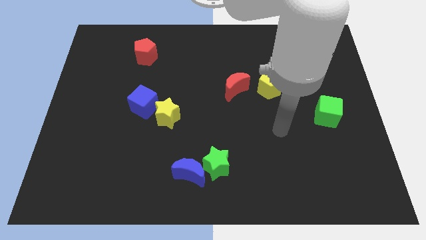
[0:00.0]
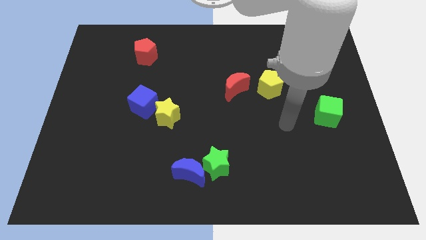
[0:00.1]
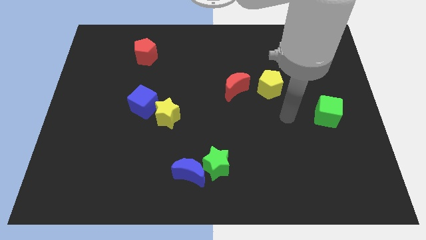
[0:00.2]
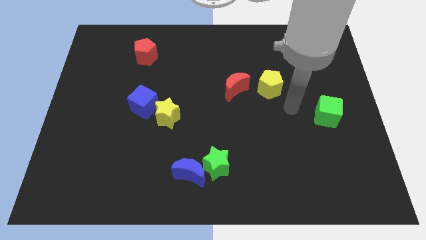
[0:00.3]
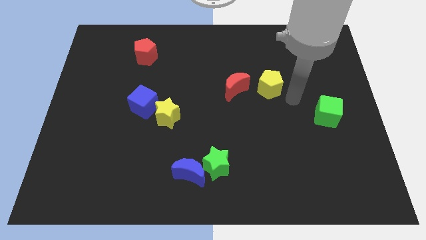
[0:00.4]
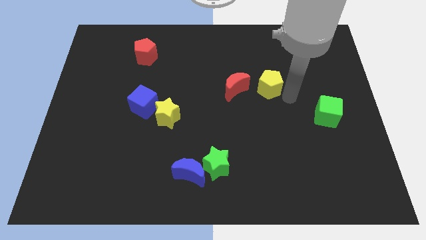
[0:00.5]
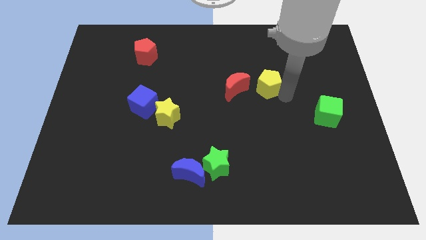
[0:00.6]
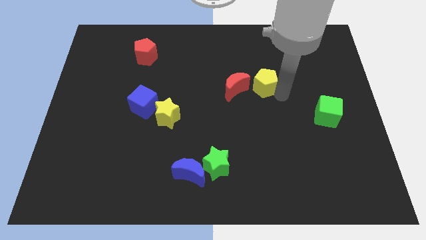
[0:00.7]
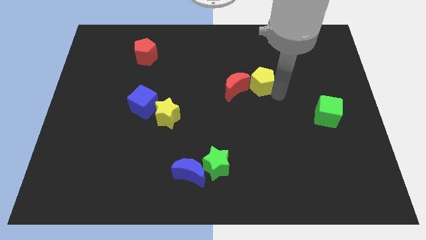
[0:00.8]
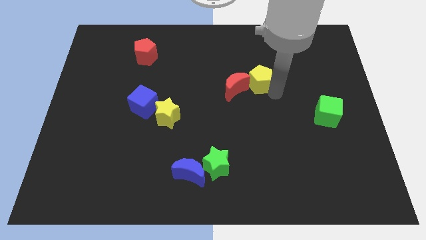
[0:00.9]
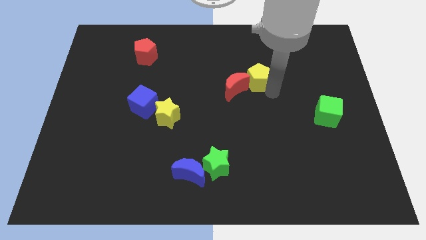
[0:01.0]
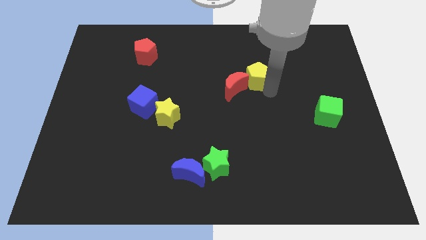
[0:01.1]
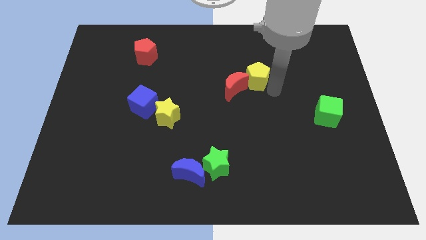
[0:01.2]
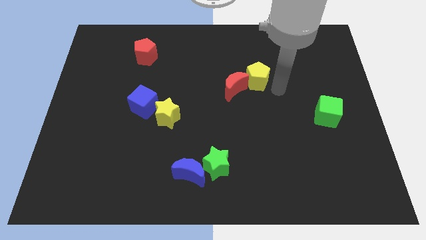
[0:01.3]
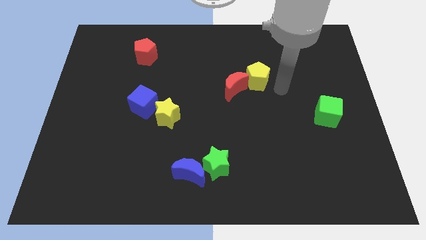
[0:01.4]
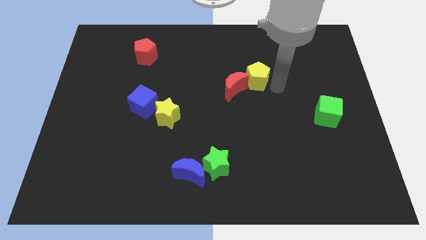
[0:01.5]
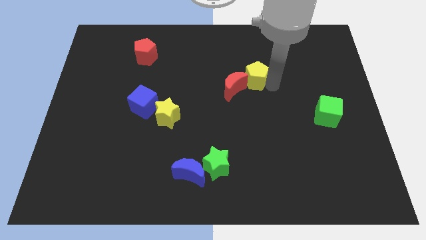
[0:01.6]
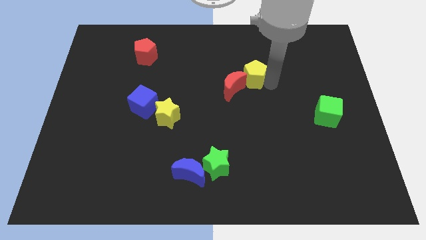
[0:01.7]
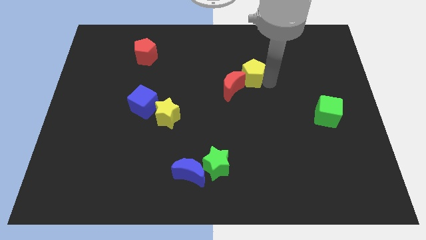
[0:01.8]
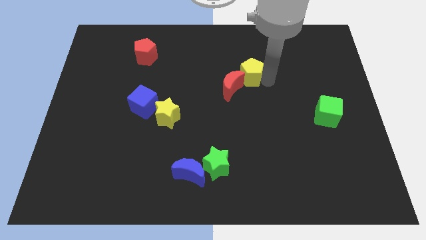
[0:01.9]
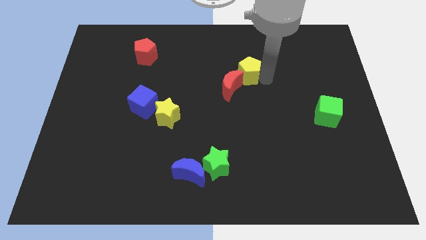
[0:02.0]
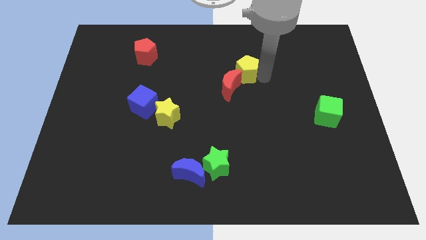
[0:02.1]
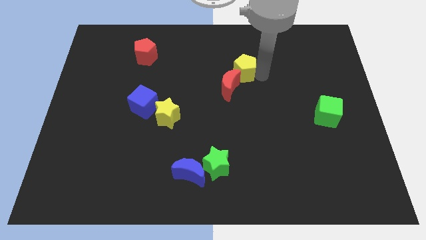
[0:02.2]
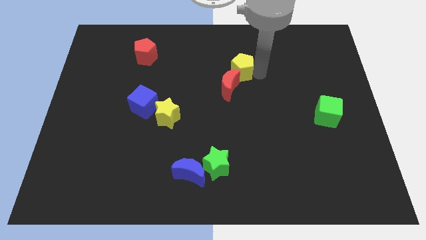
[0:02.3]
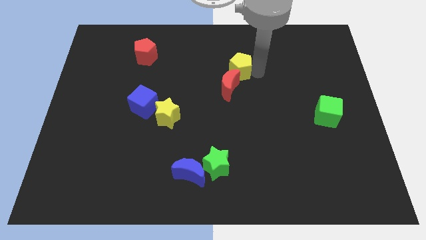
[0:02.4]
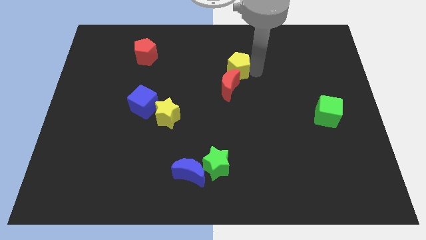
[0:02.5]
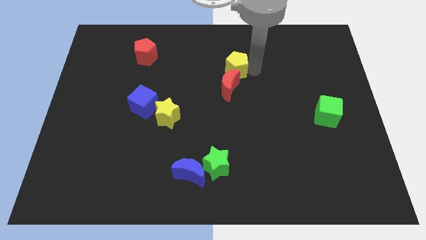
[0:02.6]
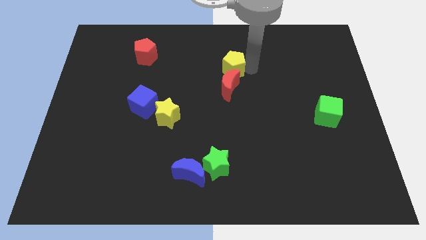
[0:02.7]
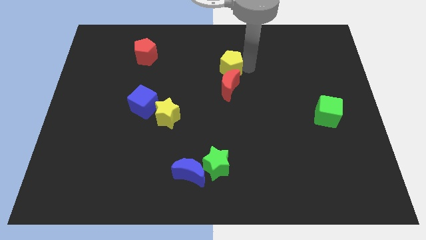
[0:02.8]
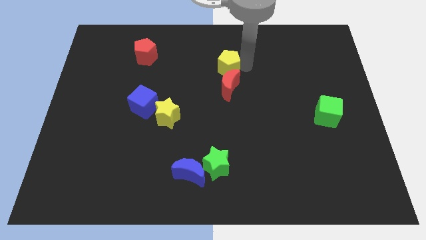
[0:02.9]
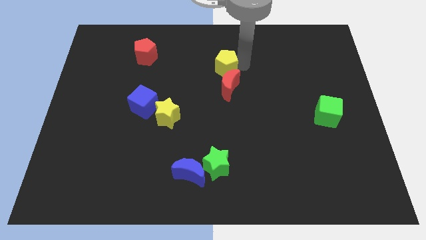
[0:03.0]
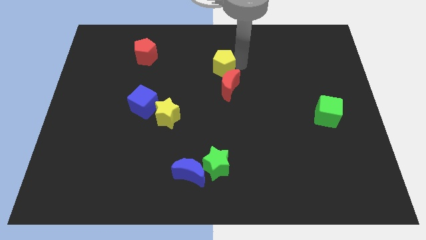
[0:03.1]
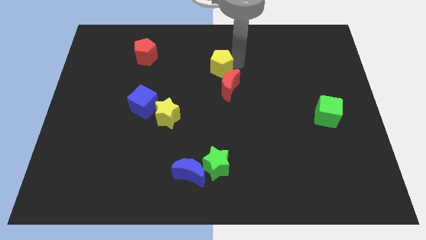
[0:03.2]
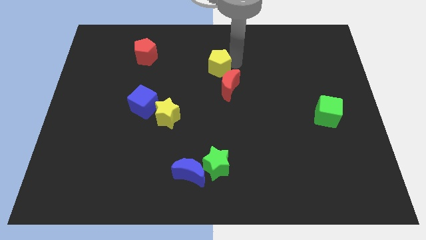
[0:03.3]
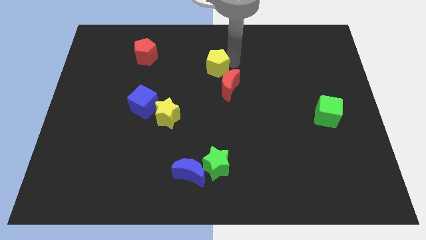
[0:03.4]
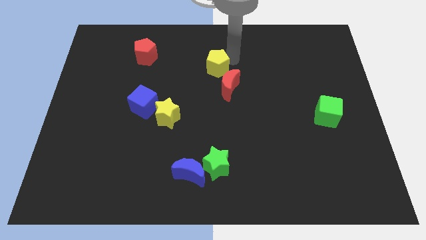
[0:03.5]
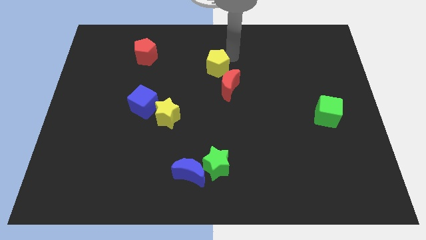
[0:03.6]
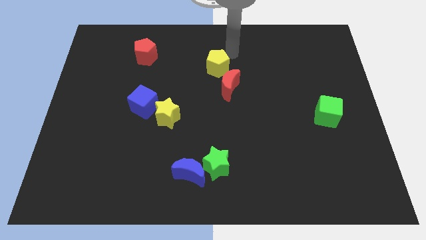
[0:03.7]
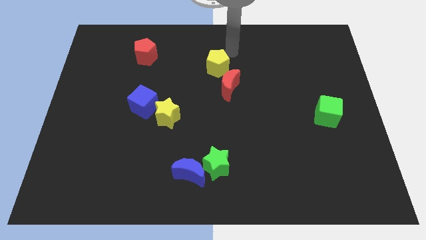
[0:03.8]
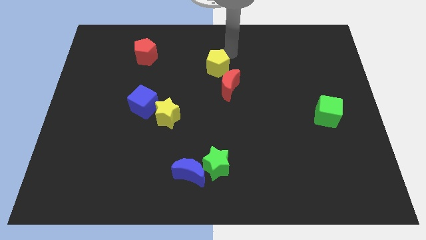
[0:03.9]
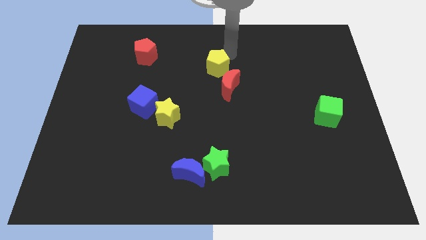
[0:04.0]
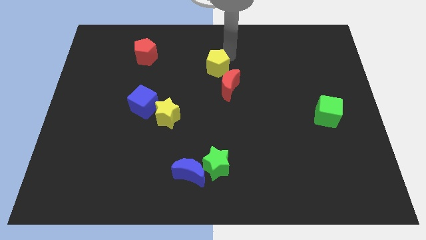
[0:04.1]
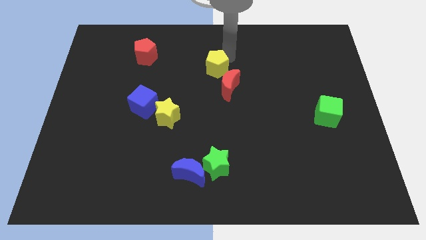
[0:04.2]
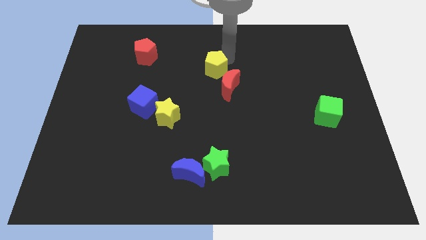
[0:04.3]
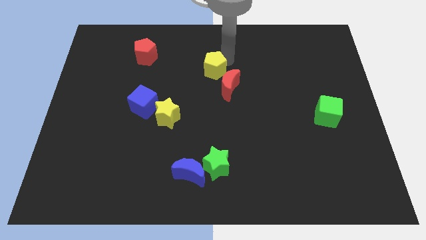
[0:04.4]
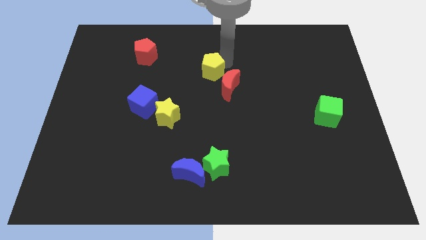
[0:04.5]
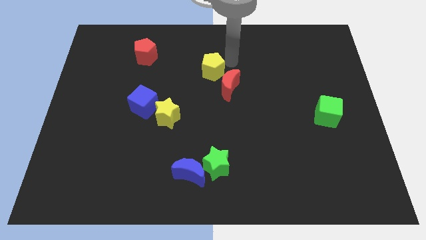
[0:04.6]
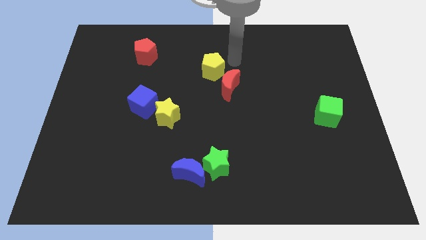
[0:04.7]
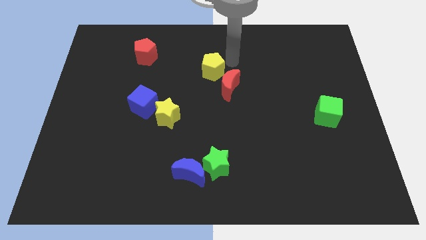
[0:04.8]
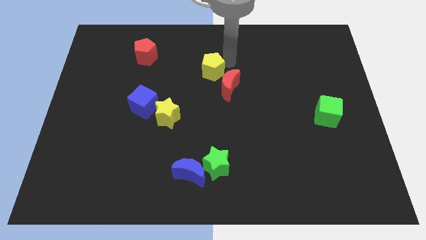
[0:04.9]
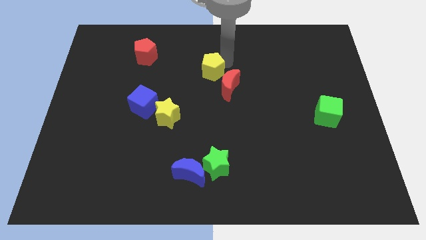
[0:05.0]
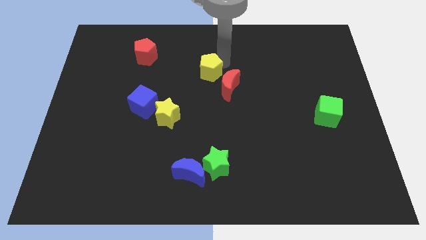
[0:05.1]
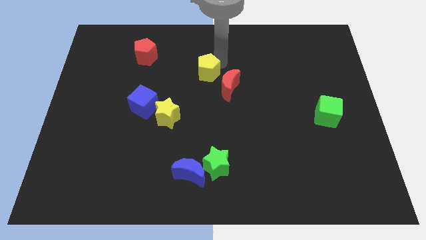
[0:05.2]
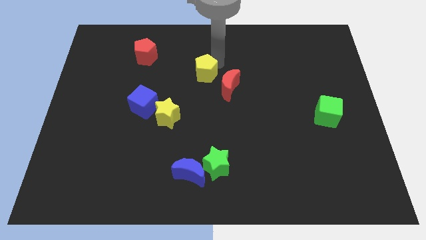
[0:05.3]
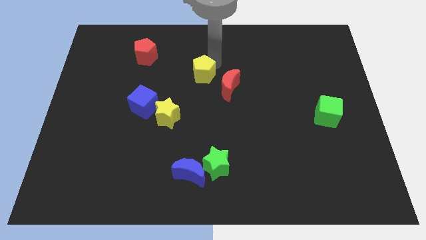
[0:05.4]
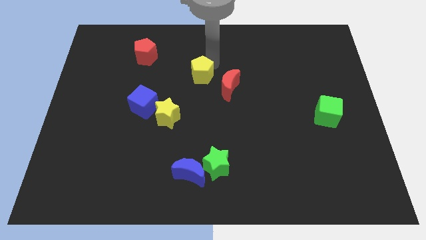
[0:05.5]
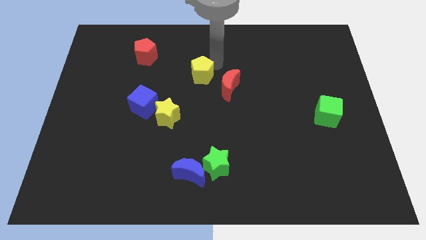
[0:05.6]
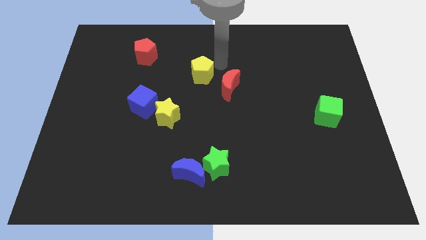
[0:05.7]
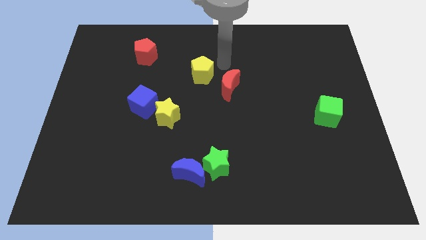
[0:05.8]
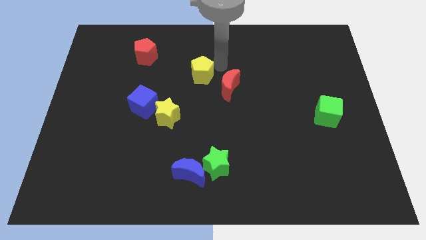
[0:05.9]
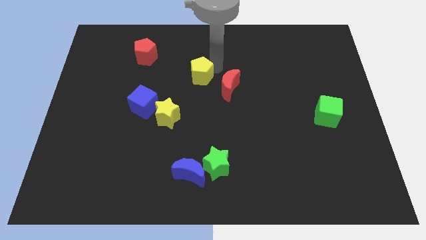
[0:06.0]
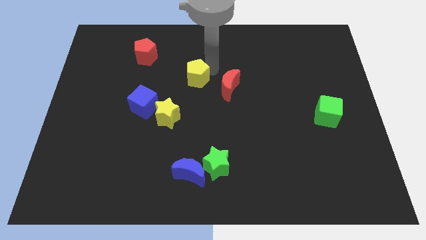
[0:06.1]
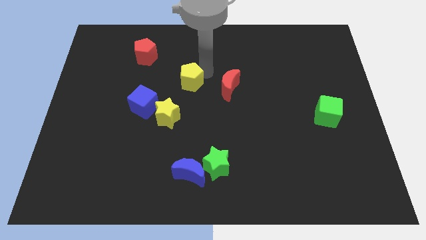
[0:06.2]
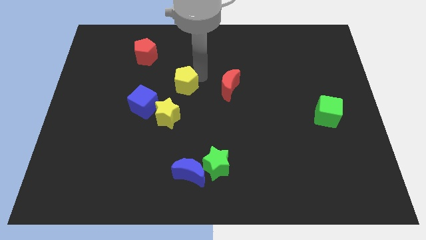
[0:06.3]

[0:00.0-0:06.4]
slide the yellow pentagon above the yellow star

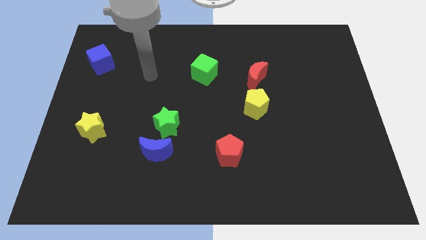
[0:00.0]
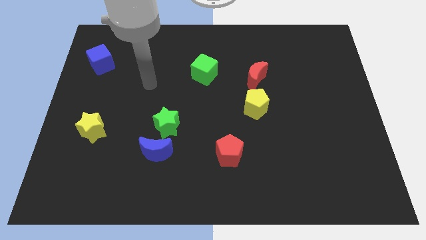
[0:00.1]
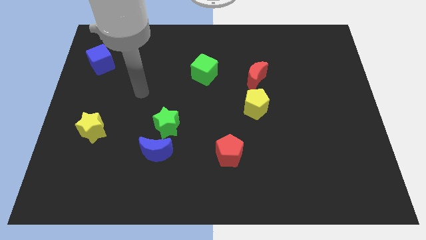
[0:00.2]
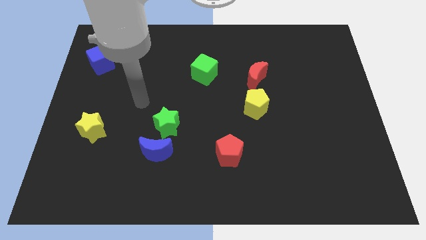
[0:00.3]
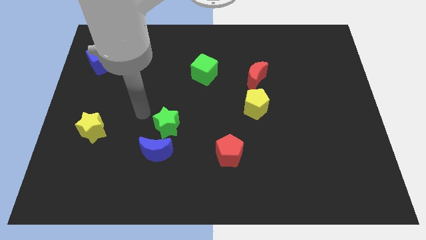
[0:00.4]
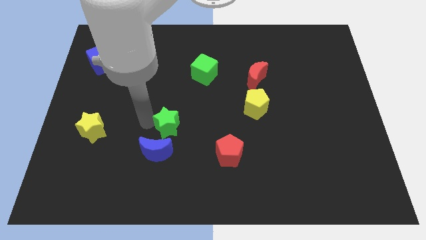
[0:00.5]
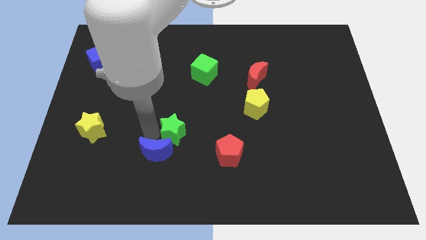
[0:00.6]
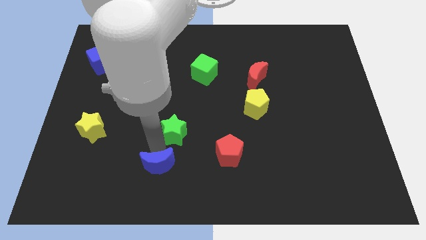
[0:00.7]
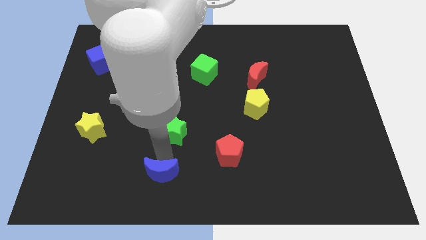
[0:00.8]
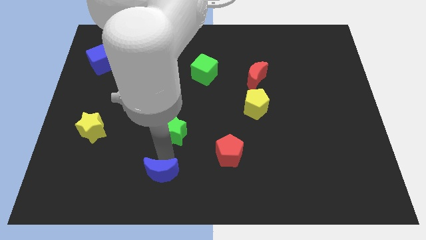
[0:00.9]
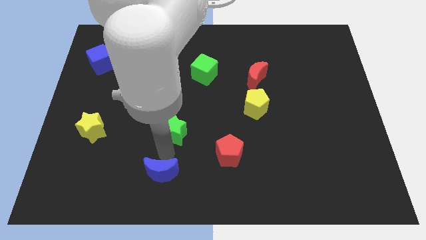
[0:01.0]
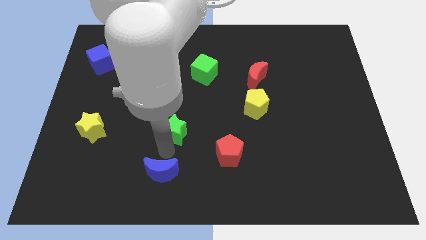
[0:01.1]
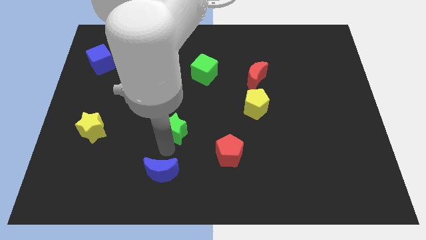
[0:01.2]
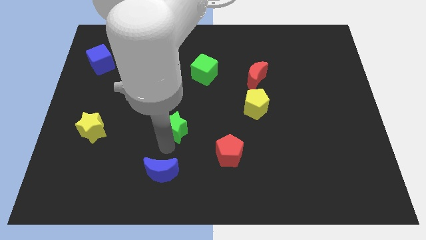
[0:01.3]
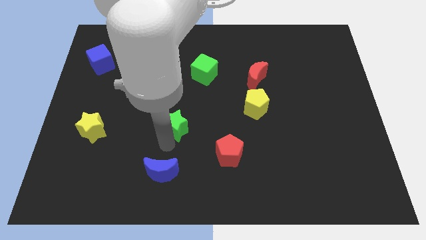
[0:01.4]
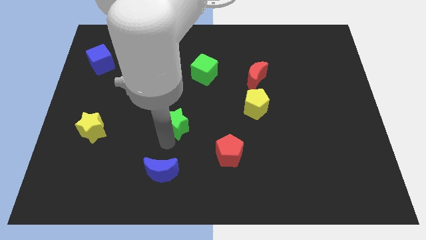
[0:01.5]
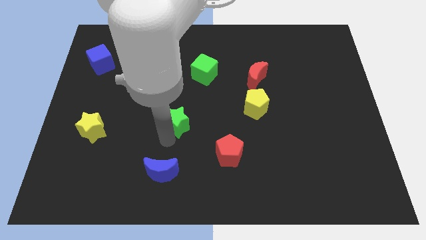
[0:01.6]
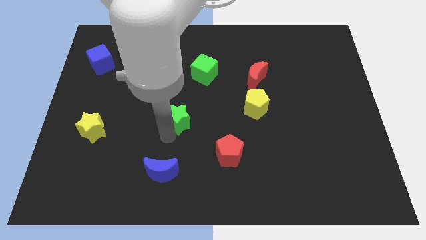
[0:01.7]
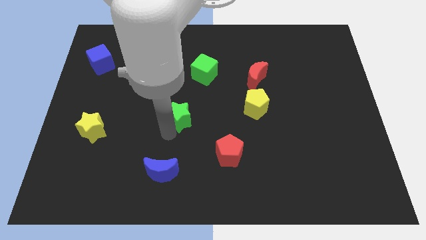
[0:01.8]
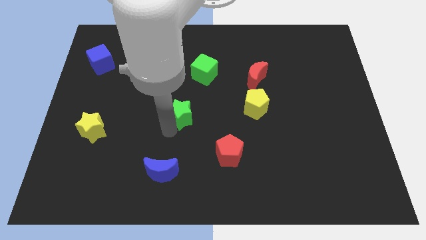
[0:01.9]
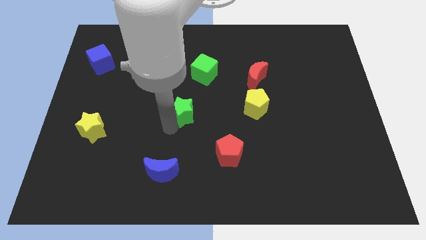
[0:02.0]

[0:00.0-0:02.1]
slide the green star below the green cube
